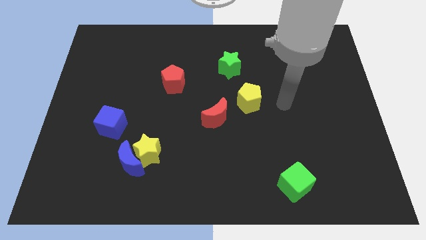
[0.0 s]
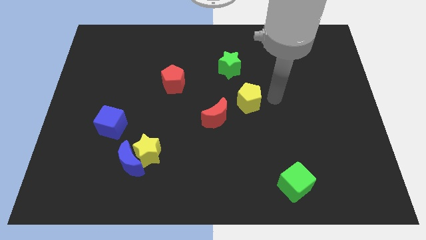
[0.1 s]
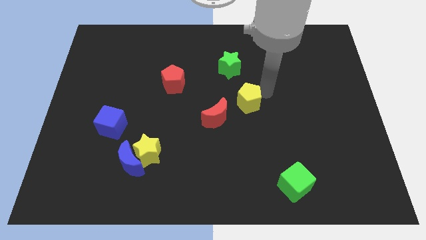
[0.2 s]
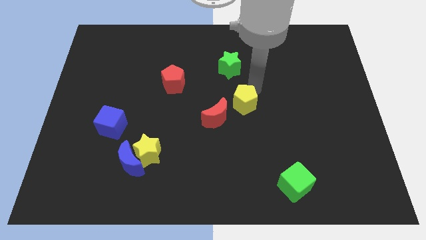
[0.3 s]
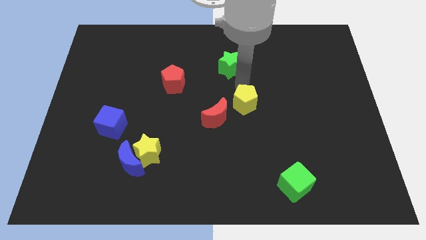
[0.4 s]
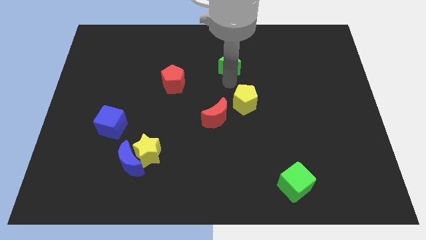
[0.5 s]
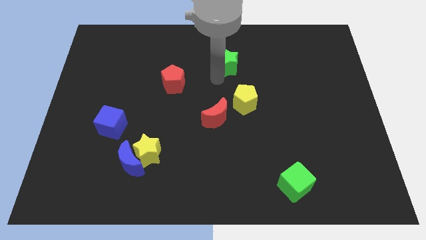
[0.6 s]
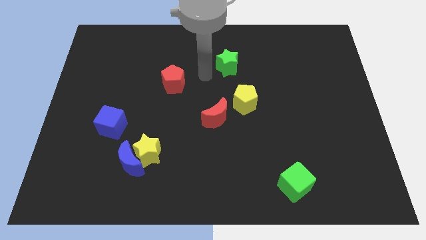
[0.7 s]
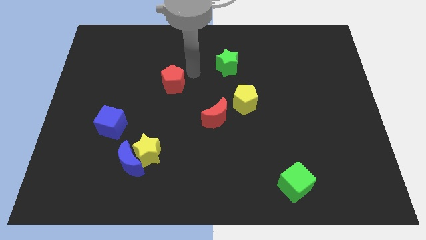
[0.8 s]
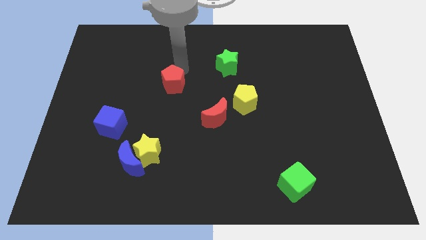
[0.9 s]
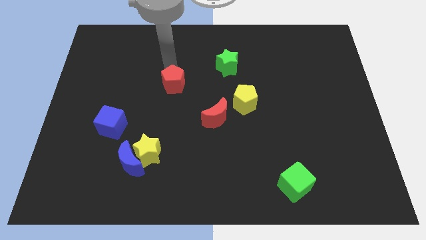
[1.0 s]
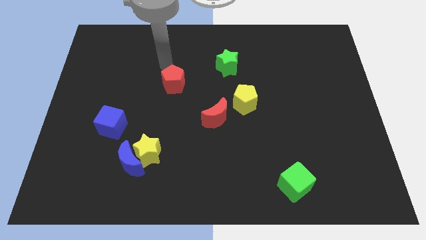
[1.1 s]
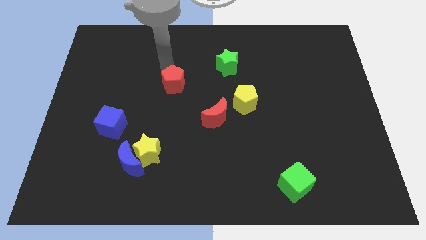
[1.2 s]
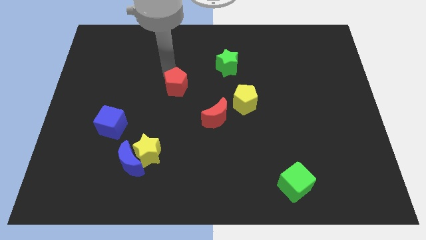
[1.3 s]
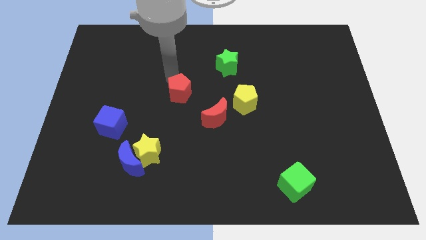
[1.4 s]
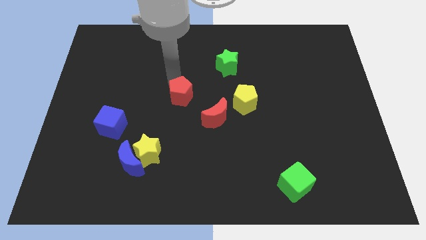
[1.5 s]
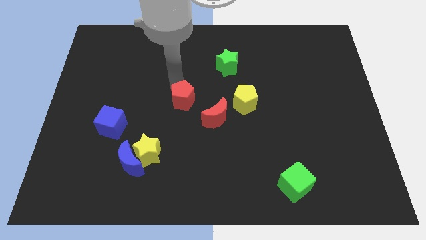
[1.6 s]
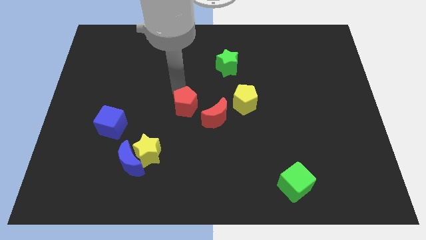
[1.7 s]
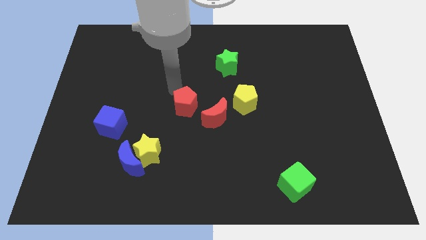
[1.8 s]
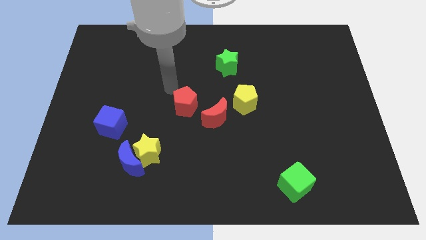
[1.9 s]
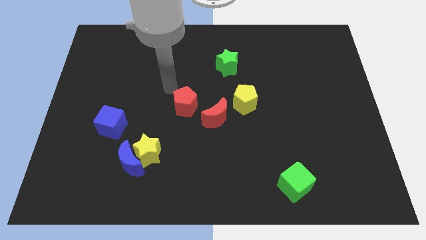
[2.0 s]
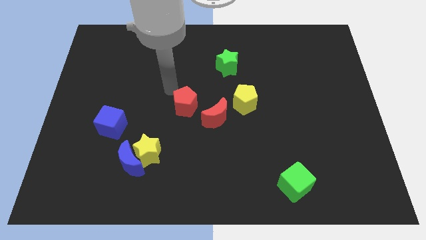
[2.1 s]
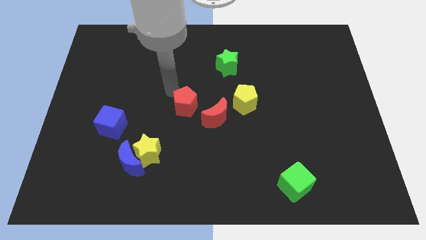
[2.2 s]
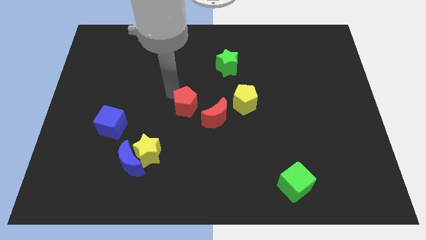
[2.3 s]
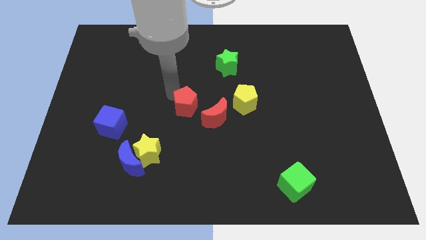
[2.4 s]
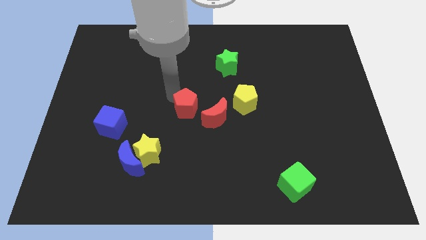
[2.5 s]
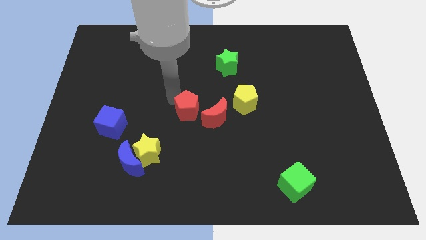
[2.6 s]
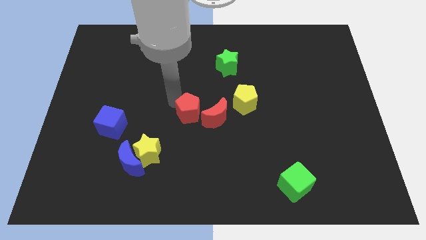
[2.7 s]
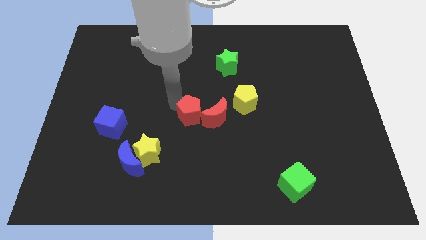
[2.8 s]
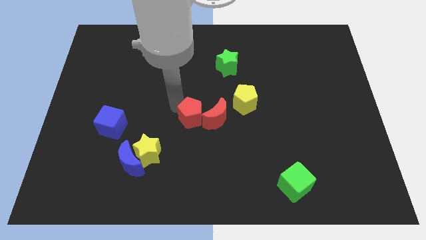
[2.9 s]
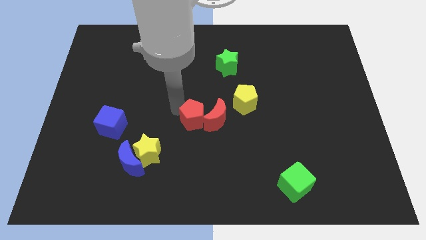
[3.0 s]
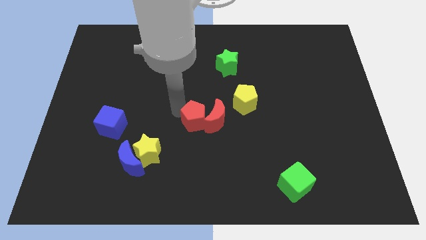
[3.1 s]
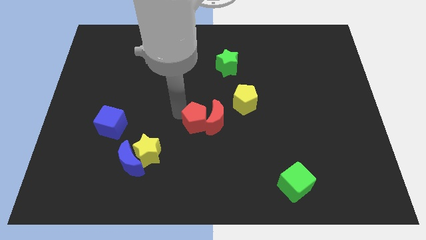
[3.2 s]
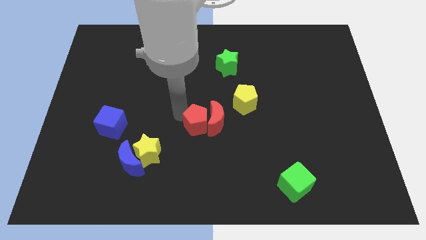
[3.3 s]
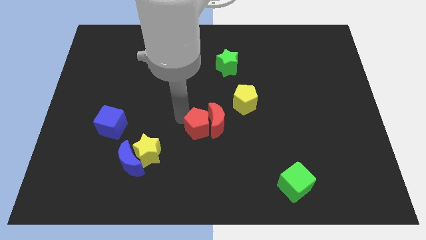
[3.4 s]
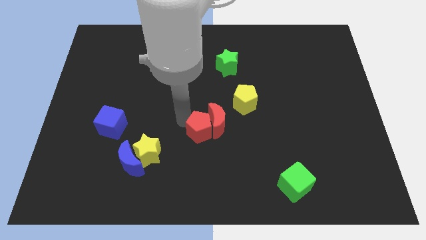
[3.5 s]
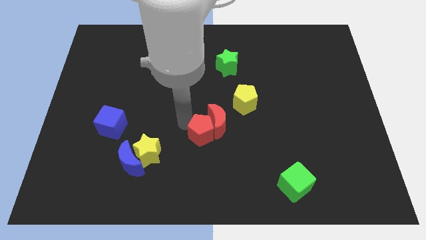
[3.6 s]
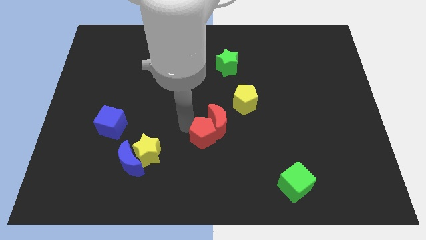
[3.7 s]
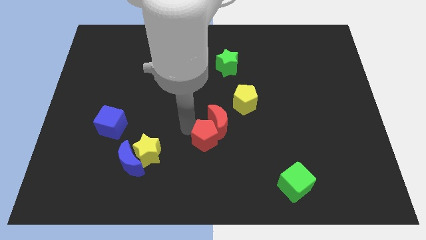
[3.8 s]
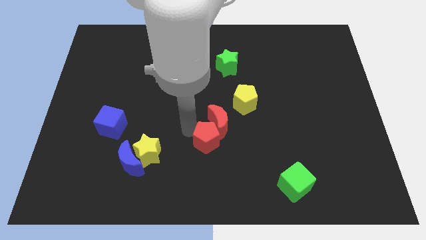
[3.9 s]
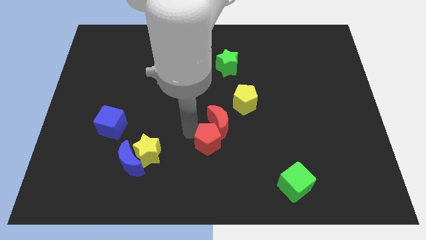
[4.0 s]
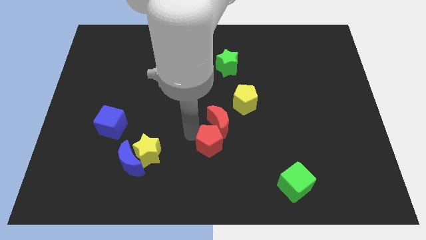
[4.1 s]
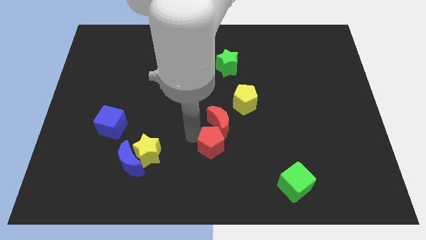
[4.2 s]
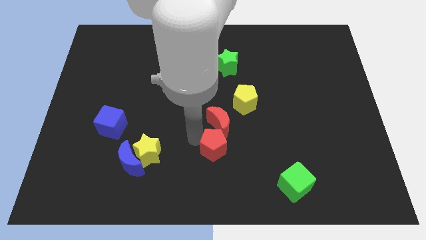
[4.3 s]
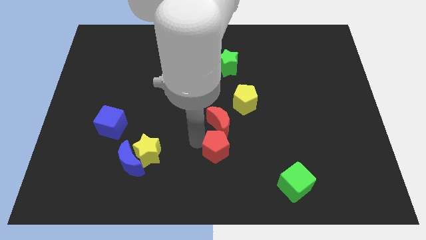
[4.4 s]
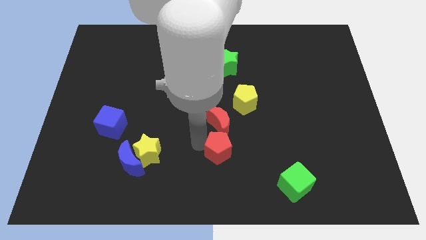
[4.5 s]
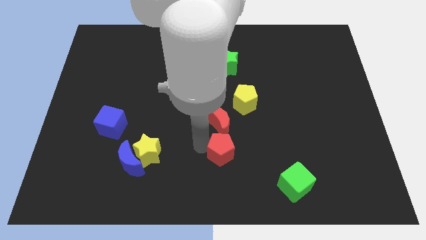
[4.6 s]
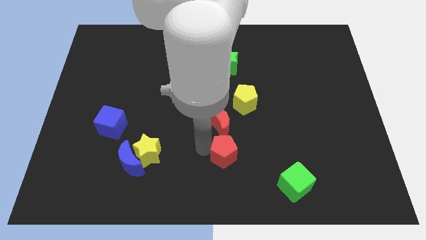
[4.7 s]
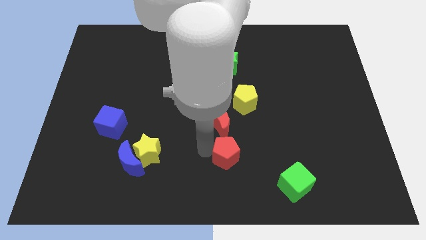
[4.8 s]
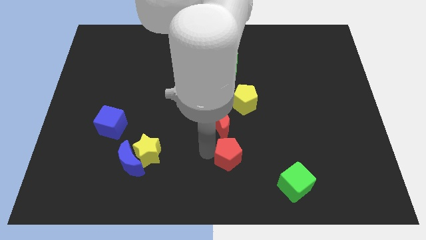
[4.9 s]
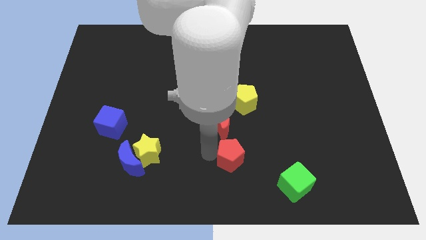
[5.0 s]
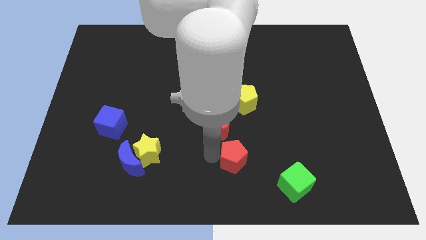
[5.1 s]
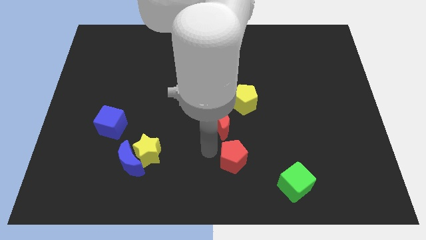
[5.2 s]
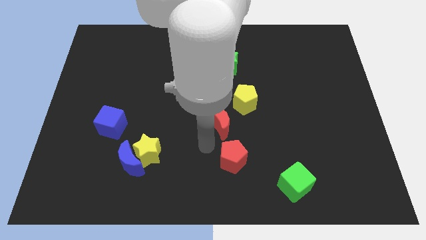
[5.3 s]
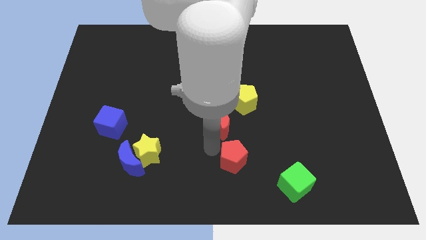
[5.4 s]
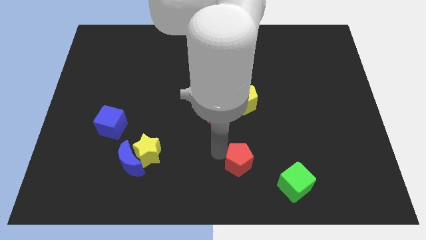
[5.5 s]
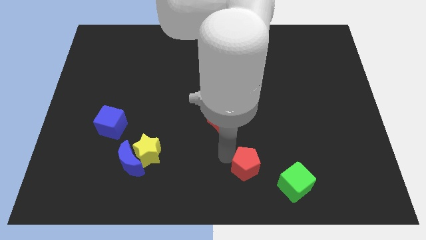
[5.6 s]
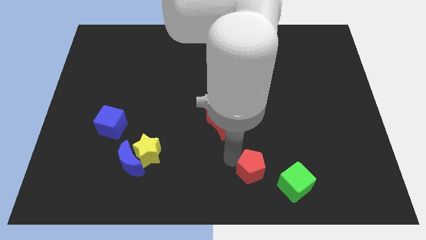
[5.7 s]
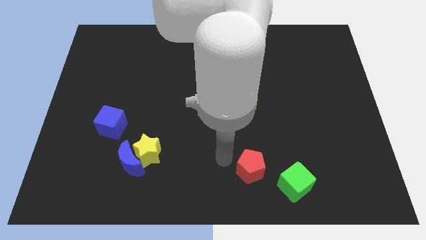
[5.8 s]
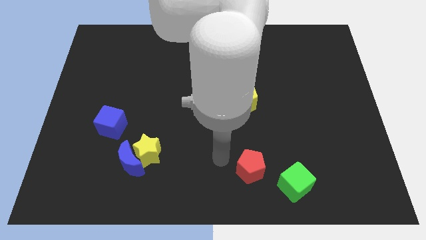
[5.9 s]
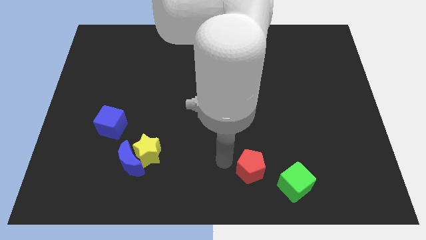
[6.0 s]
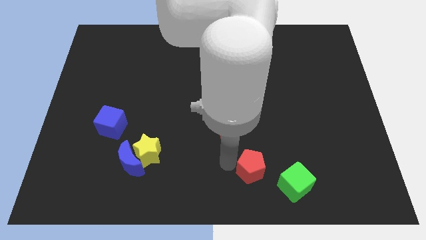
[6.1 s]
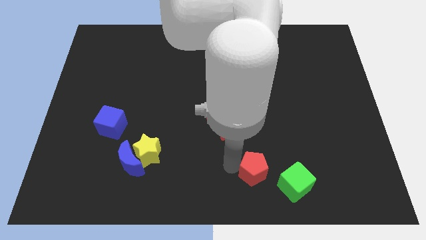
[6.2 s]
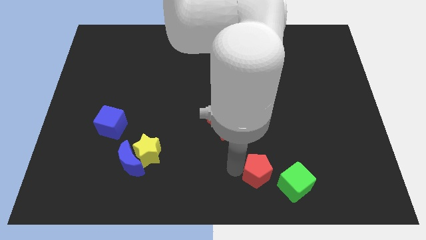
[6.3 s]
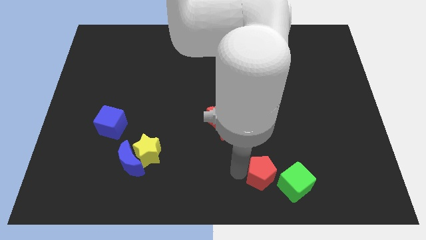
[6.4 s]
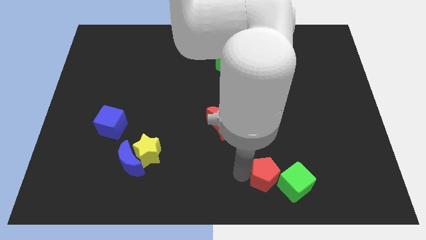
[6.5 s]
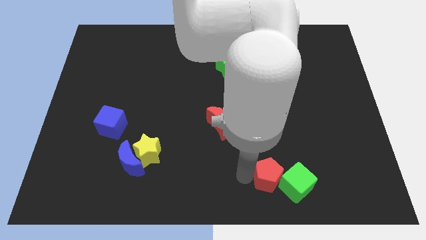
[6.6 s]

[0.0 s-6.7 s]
move the red pentagon close to the green cube
